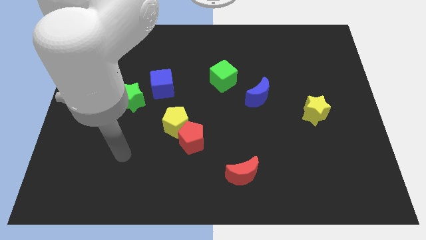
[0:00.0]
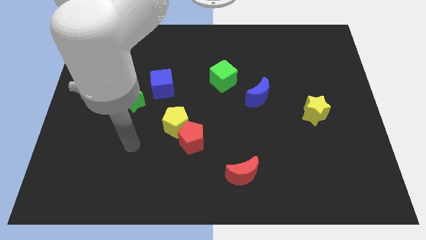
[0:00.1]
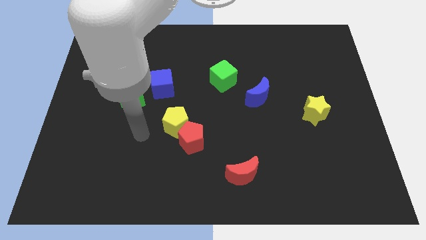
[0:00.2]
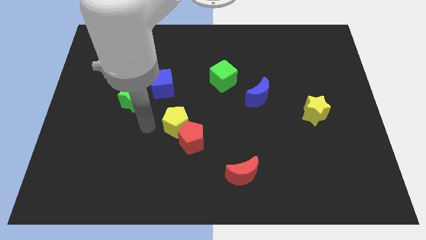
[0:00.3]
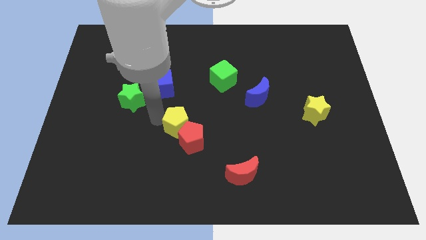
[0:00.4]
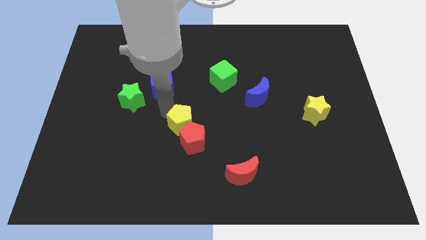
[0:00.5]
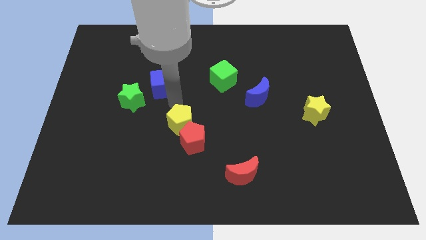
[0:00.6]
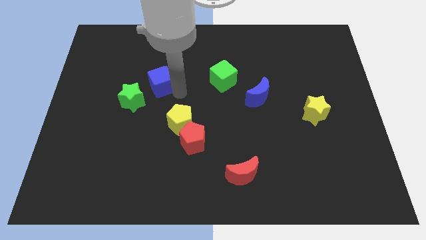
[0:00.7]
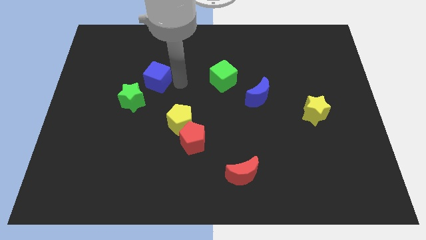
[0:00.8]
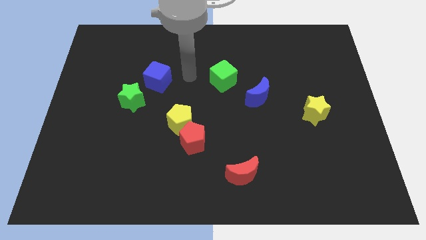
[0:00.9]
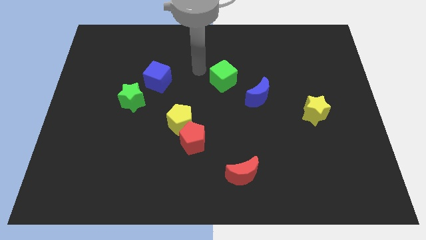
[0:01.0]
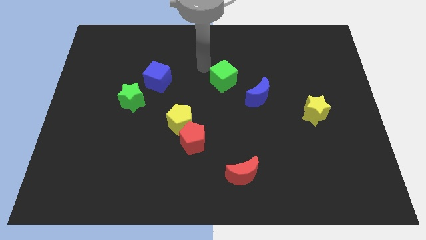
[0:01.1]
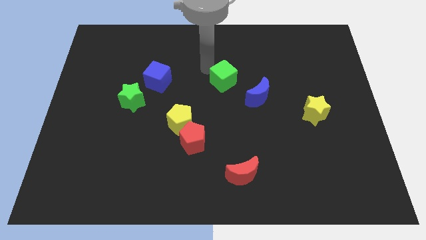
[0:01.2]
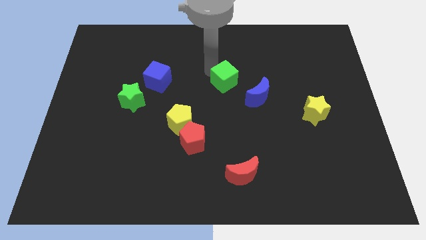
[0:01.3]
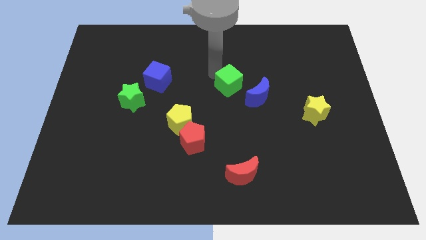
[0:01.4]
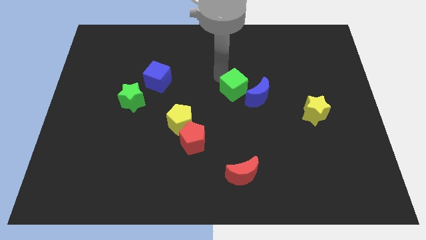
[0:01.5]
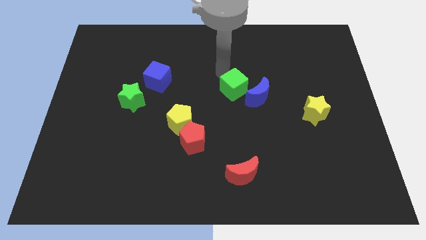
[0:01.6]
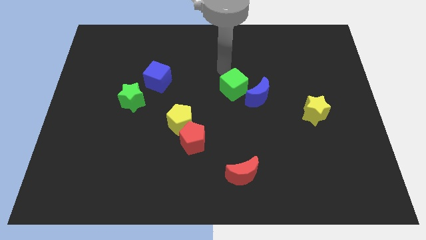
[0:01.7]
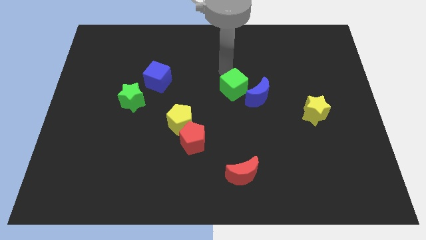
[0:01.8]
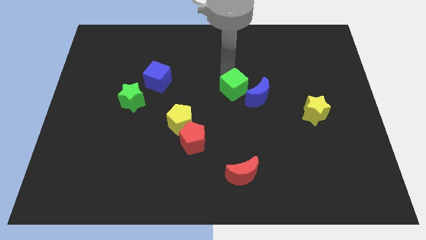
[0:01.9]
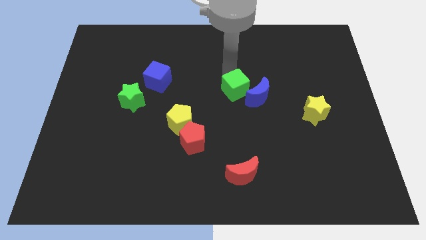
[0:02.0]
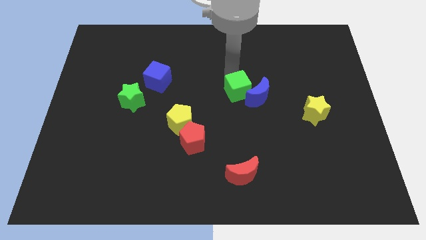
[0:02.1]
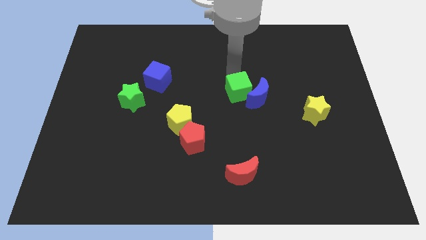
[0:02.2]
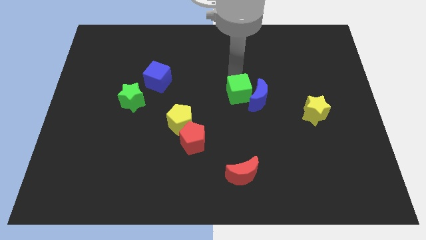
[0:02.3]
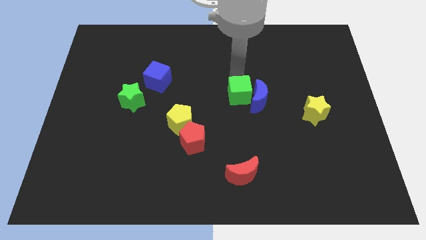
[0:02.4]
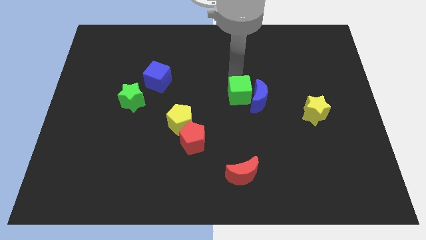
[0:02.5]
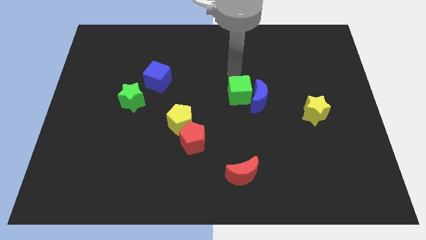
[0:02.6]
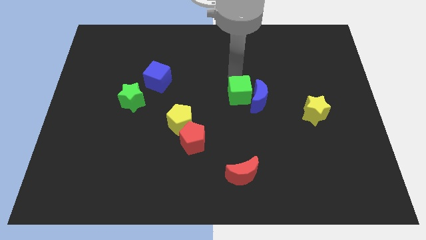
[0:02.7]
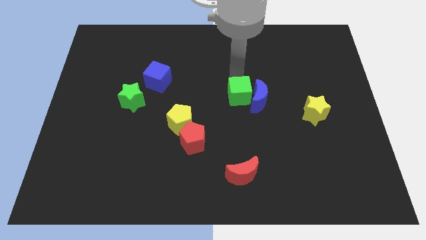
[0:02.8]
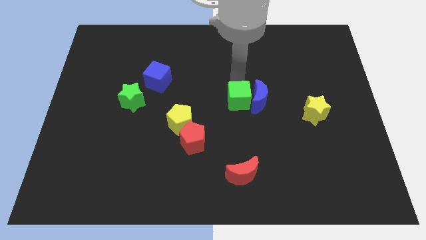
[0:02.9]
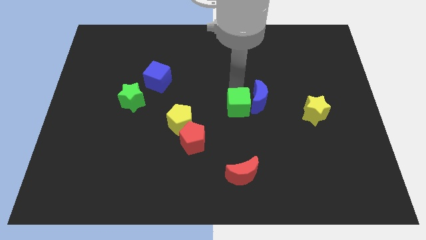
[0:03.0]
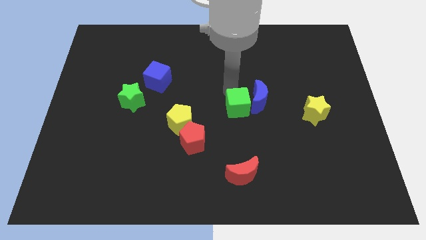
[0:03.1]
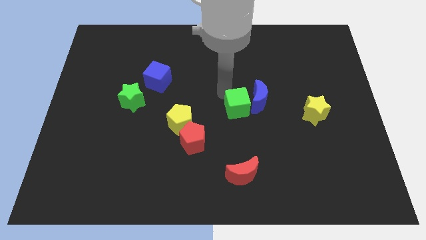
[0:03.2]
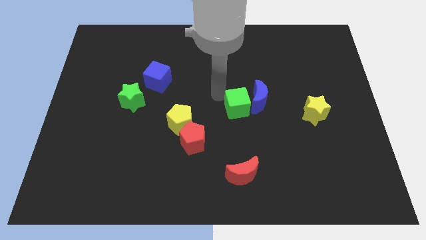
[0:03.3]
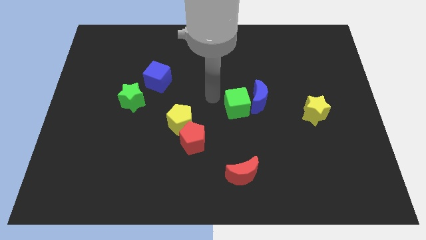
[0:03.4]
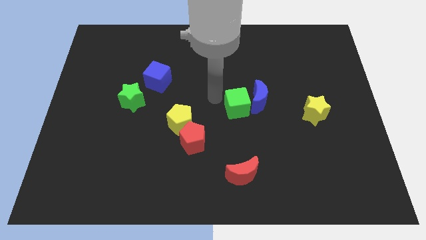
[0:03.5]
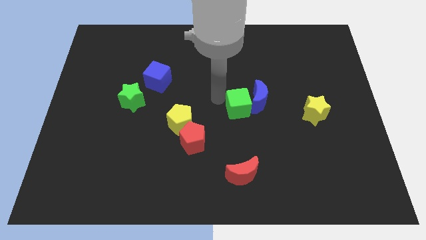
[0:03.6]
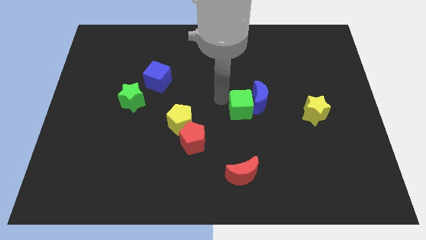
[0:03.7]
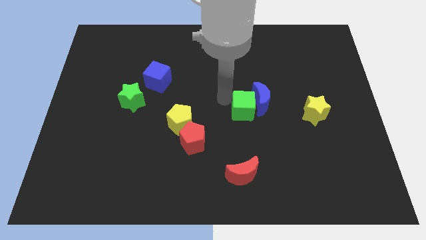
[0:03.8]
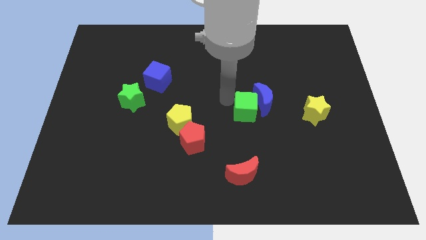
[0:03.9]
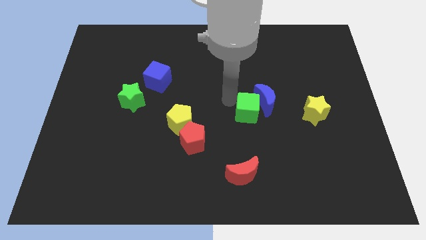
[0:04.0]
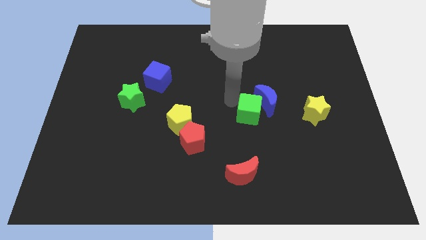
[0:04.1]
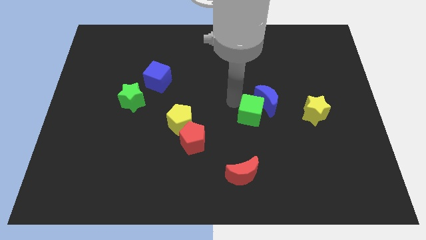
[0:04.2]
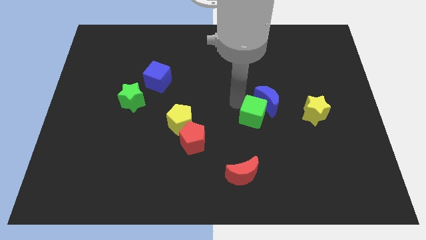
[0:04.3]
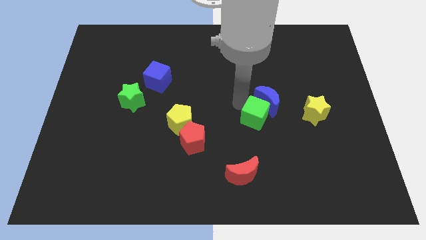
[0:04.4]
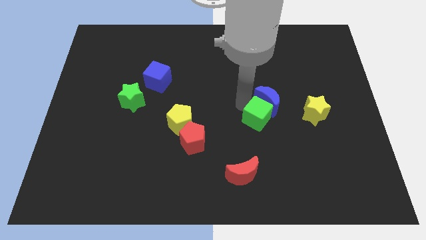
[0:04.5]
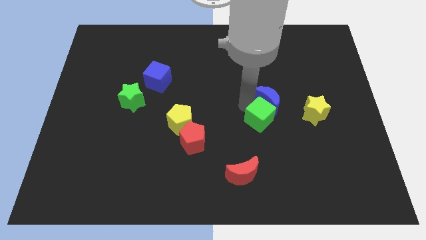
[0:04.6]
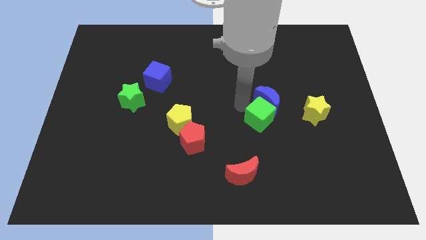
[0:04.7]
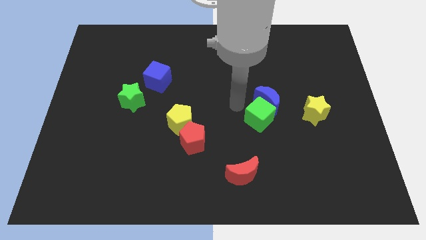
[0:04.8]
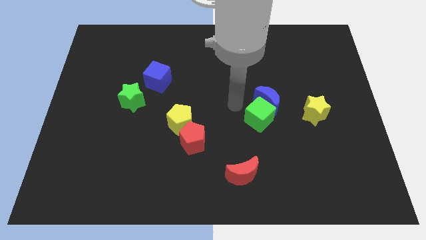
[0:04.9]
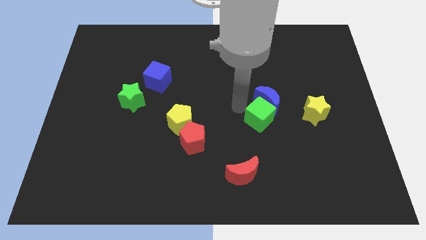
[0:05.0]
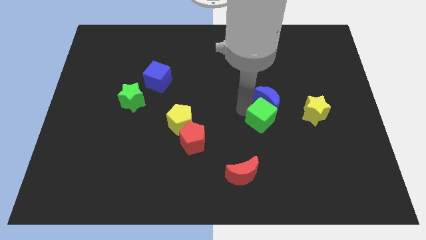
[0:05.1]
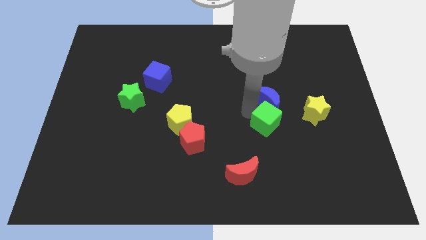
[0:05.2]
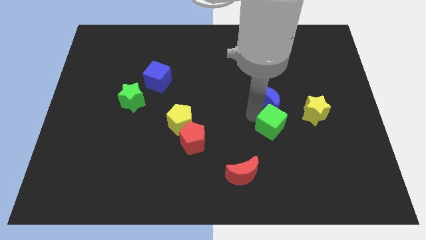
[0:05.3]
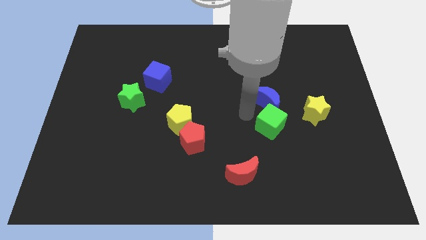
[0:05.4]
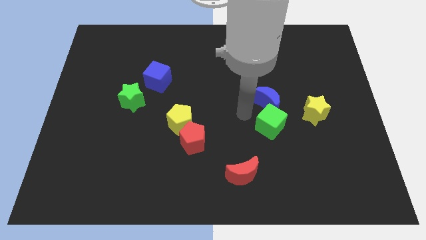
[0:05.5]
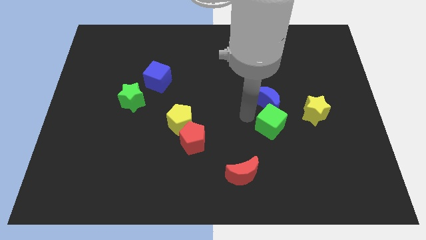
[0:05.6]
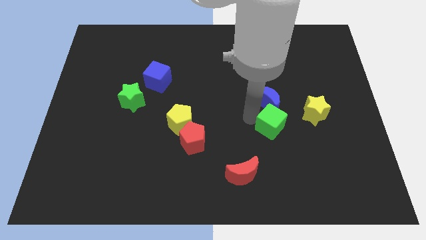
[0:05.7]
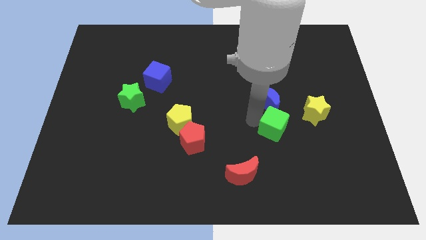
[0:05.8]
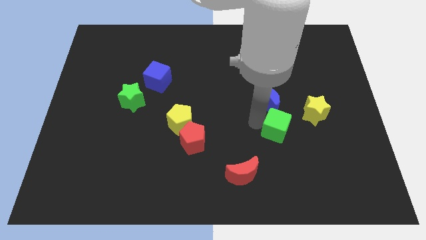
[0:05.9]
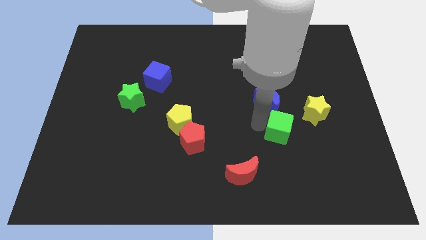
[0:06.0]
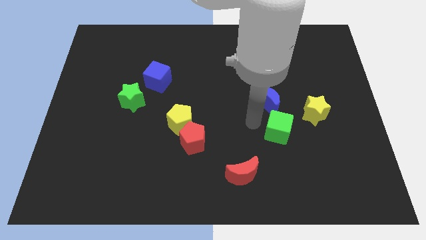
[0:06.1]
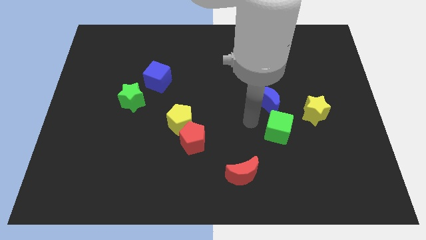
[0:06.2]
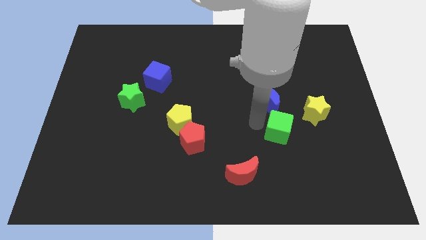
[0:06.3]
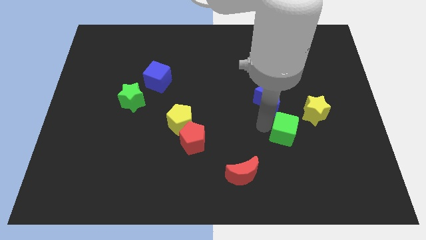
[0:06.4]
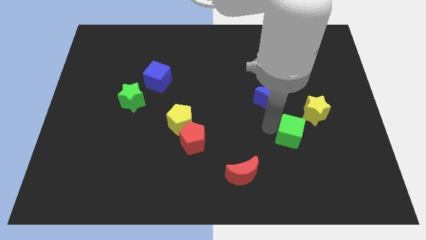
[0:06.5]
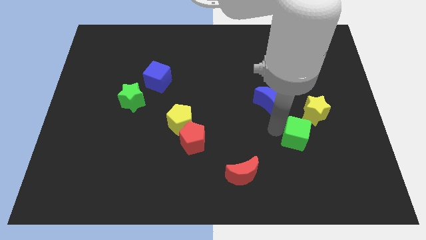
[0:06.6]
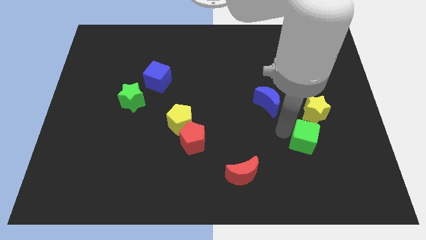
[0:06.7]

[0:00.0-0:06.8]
slide the green cube below the yellow star
